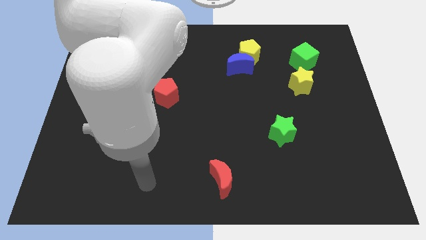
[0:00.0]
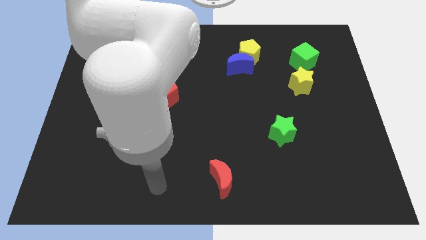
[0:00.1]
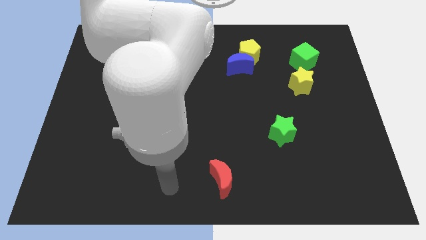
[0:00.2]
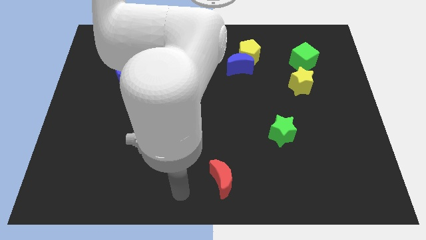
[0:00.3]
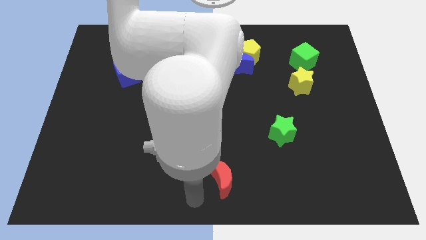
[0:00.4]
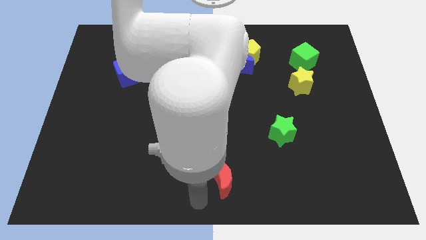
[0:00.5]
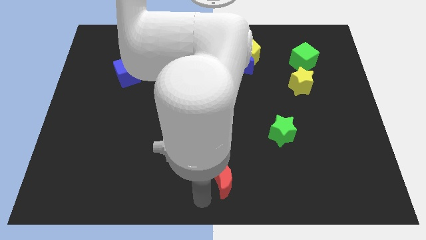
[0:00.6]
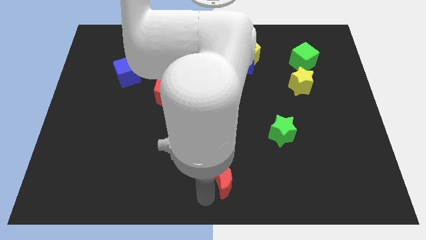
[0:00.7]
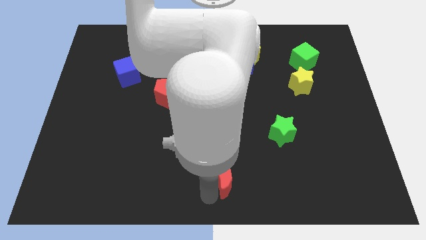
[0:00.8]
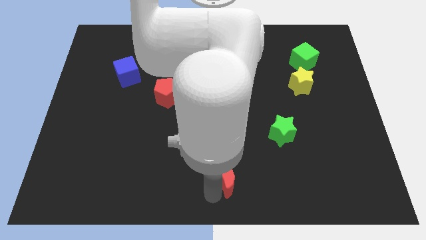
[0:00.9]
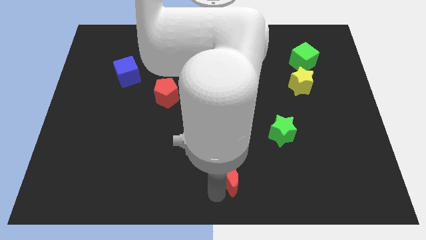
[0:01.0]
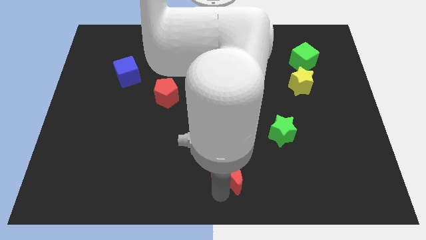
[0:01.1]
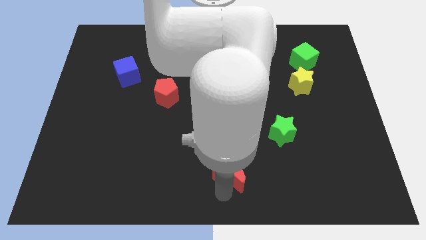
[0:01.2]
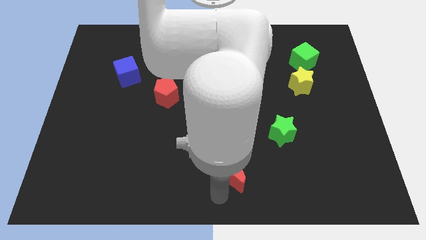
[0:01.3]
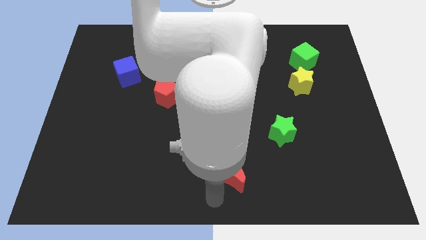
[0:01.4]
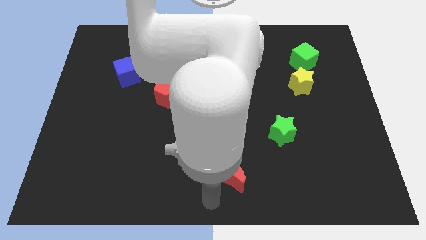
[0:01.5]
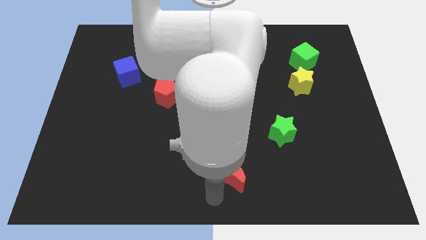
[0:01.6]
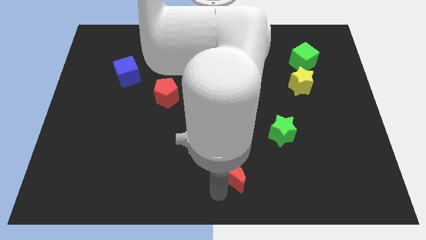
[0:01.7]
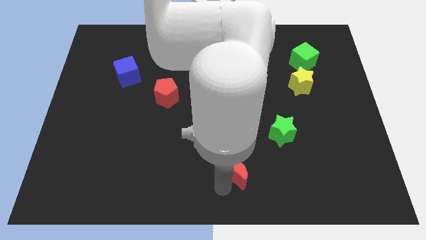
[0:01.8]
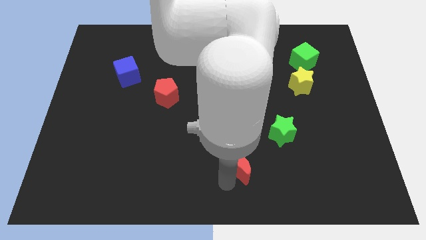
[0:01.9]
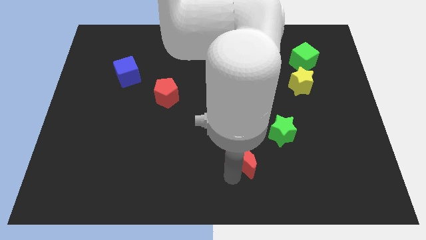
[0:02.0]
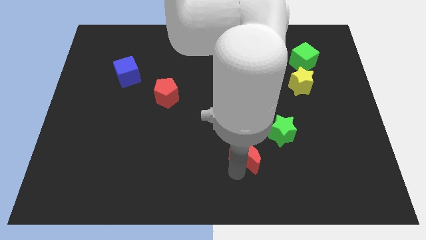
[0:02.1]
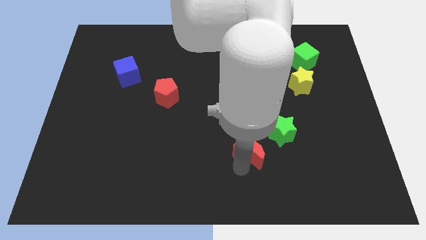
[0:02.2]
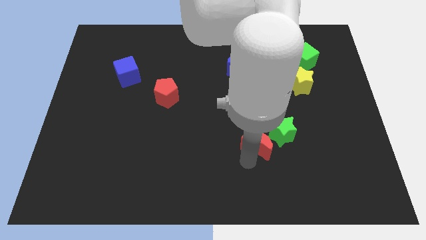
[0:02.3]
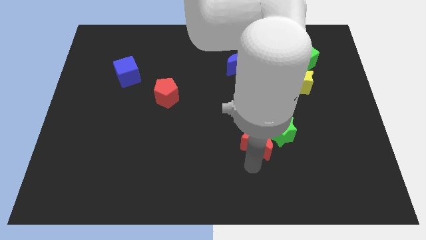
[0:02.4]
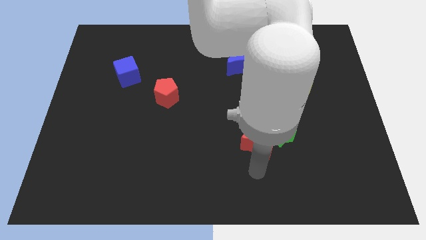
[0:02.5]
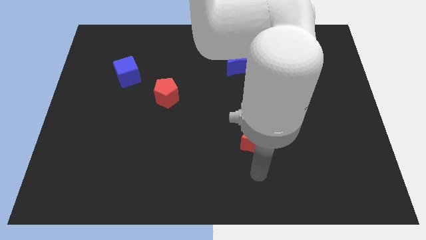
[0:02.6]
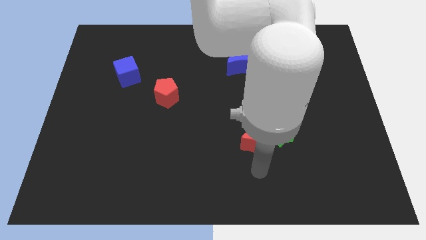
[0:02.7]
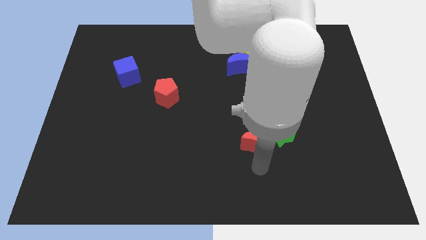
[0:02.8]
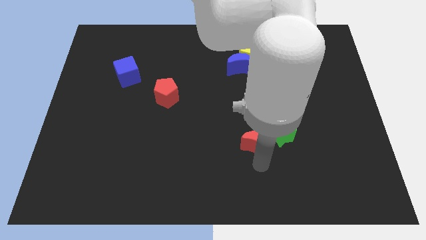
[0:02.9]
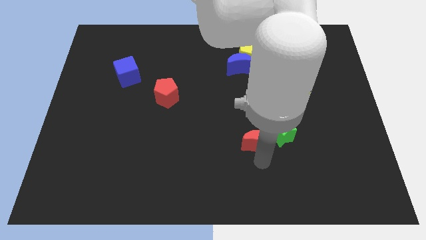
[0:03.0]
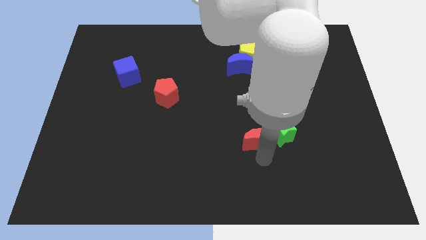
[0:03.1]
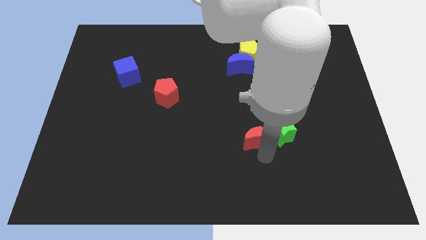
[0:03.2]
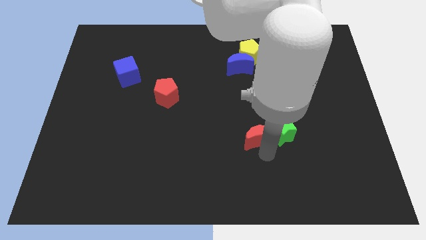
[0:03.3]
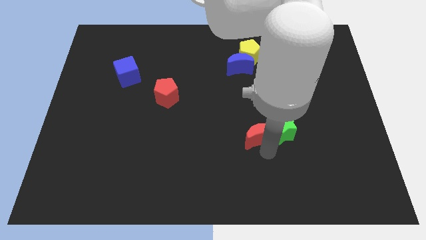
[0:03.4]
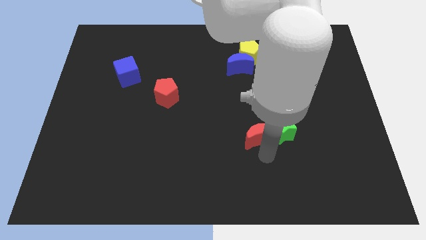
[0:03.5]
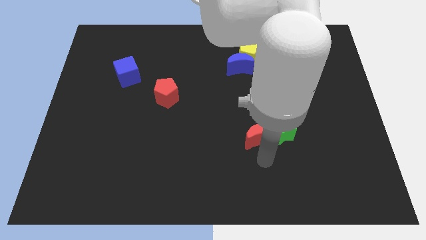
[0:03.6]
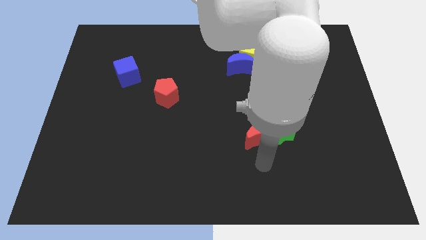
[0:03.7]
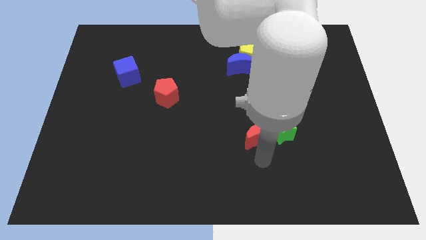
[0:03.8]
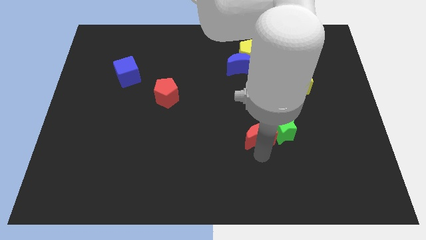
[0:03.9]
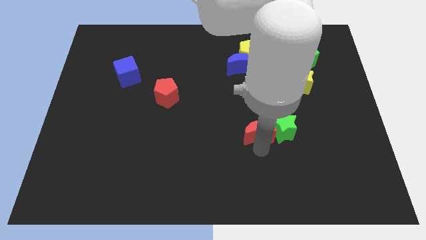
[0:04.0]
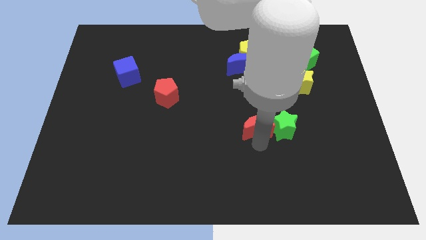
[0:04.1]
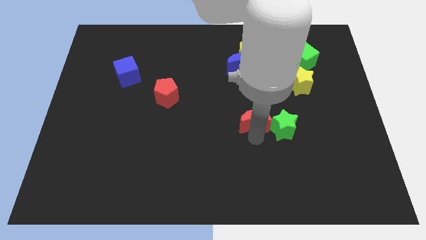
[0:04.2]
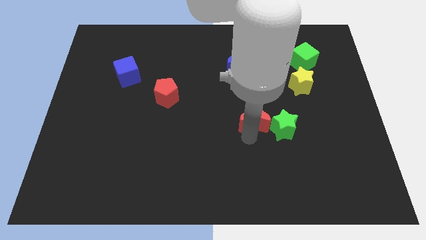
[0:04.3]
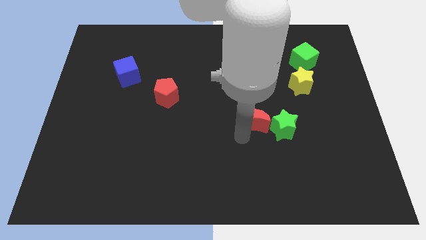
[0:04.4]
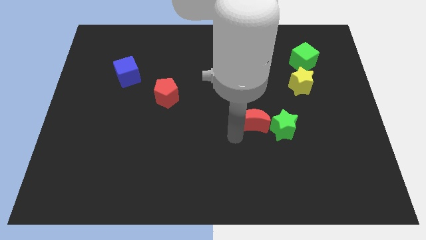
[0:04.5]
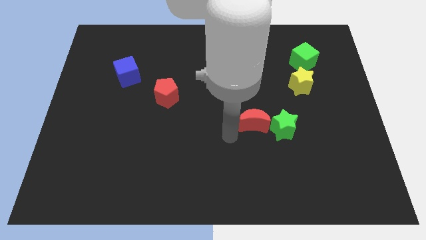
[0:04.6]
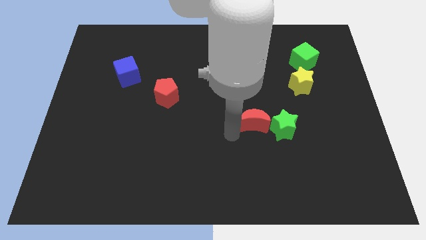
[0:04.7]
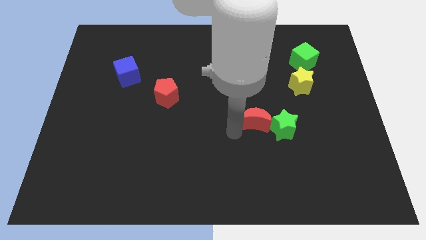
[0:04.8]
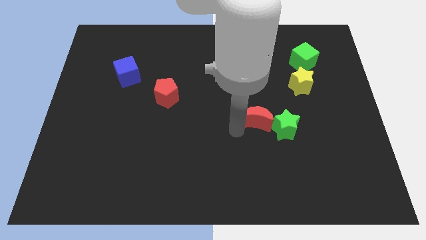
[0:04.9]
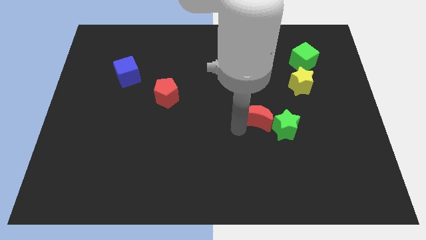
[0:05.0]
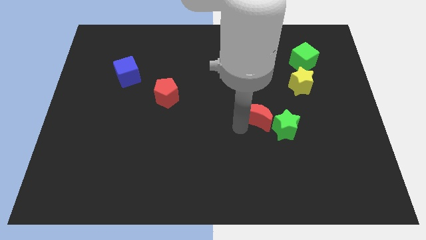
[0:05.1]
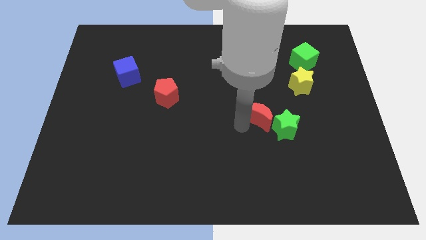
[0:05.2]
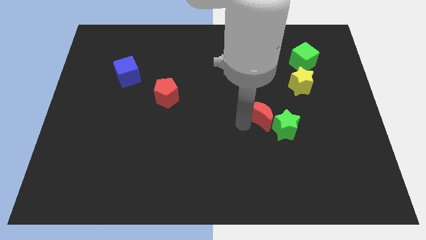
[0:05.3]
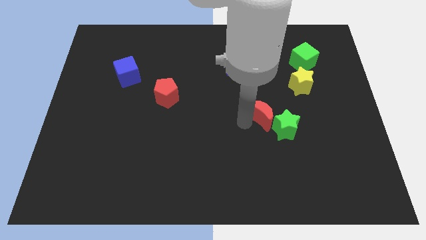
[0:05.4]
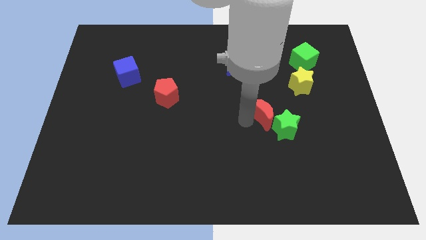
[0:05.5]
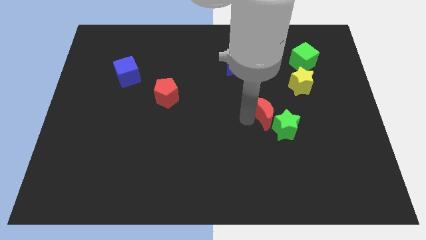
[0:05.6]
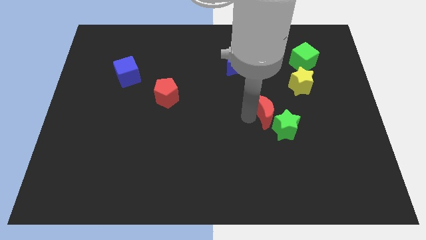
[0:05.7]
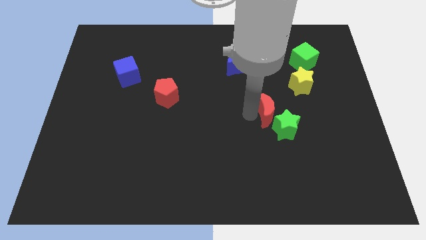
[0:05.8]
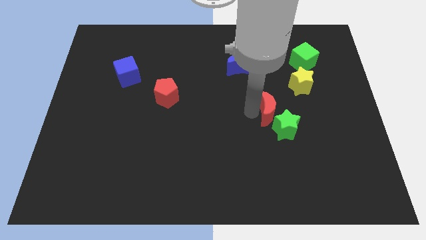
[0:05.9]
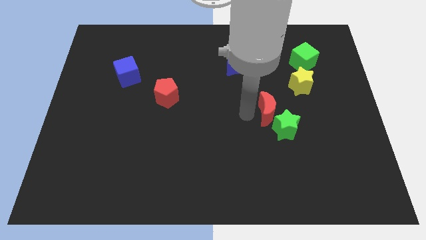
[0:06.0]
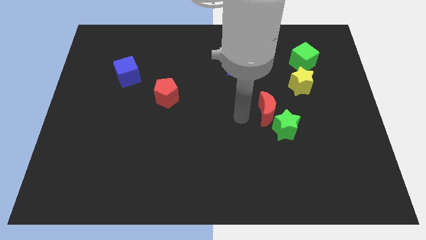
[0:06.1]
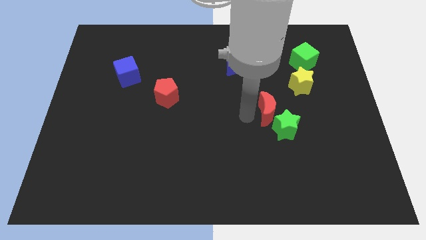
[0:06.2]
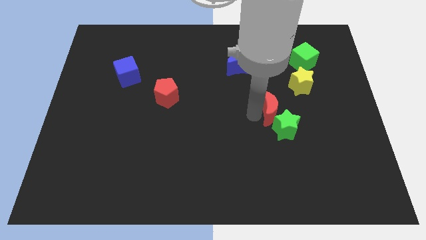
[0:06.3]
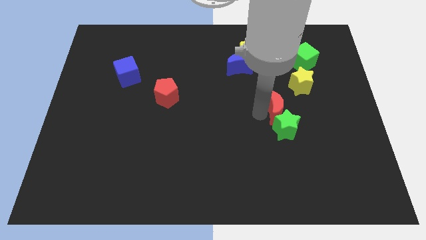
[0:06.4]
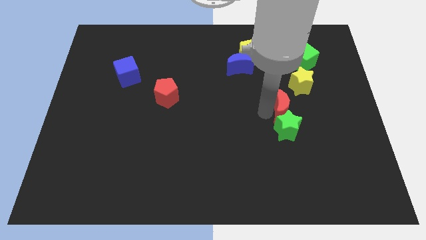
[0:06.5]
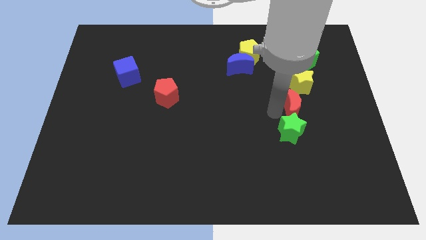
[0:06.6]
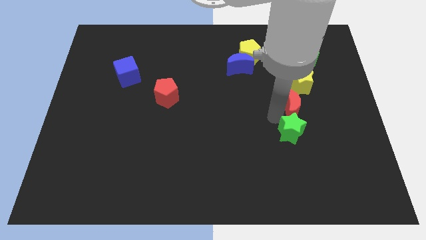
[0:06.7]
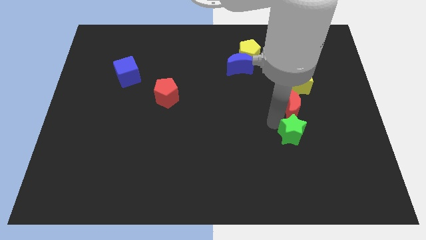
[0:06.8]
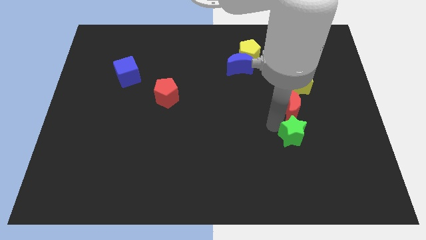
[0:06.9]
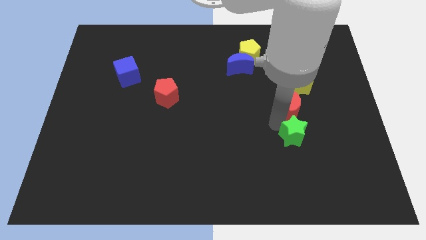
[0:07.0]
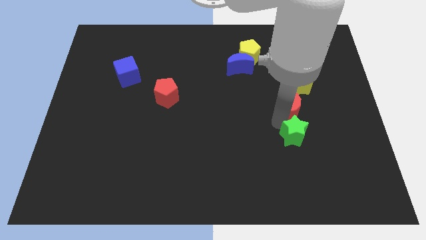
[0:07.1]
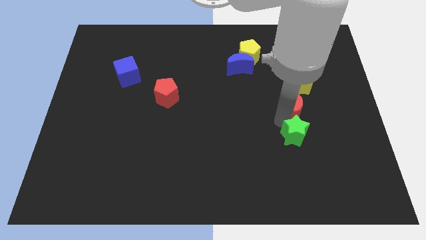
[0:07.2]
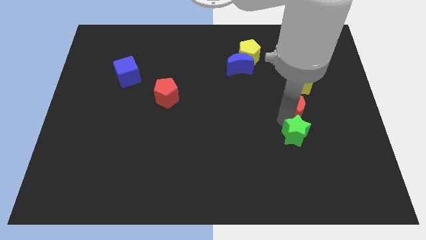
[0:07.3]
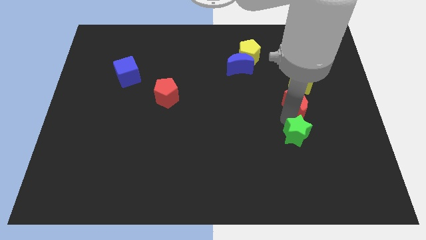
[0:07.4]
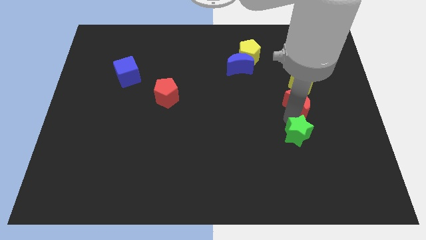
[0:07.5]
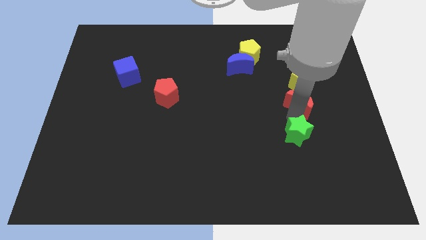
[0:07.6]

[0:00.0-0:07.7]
put the red moon to the bottom side of the green cube

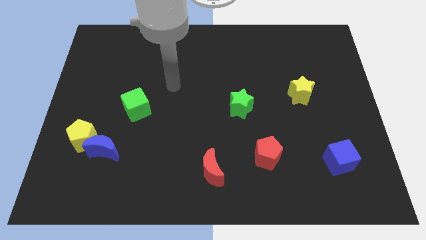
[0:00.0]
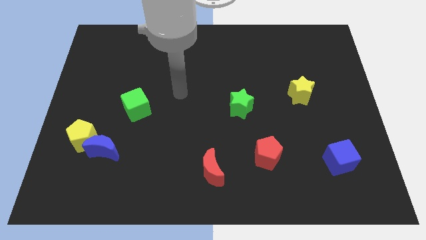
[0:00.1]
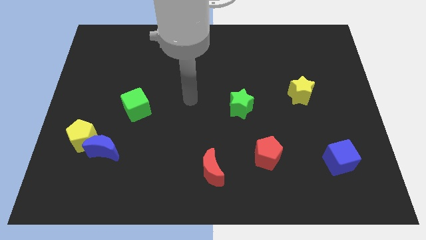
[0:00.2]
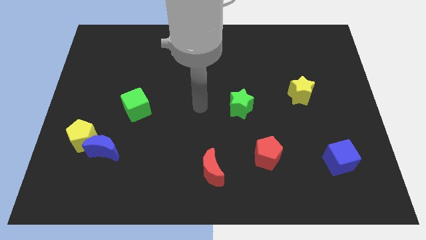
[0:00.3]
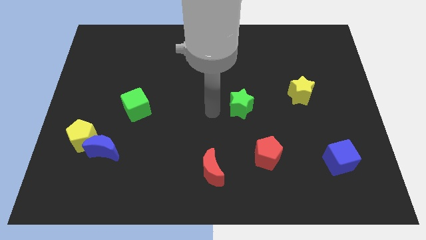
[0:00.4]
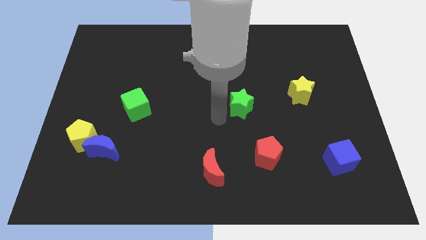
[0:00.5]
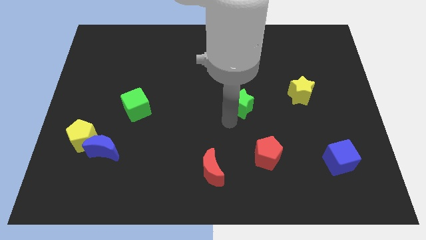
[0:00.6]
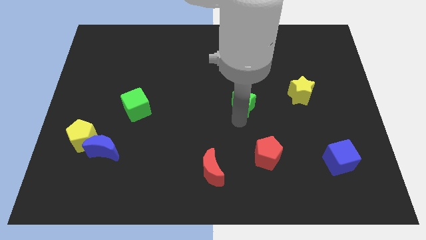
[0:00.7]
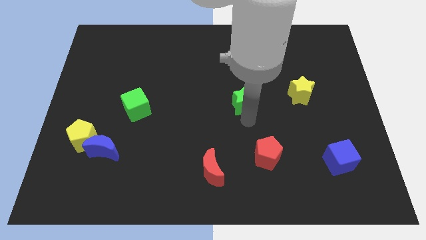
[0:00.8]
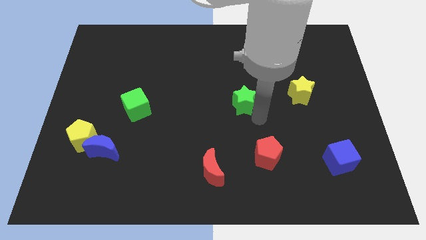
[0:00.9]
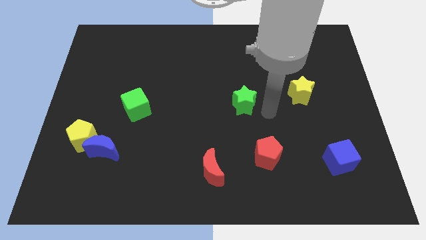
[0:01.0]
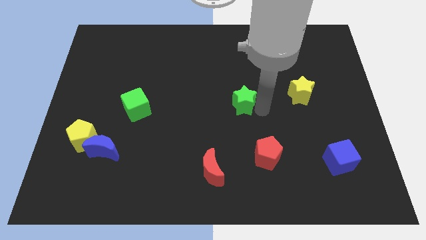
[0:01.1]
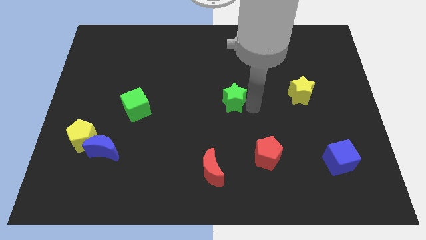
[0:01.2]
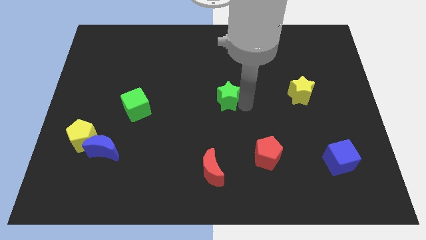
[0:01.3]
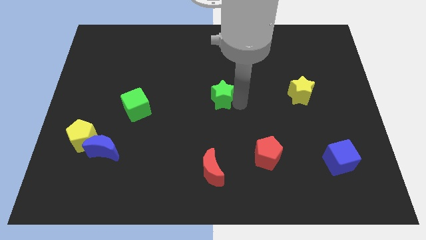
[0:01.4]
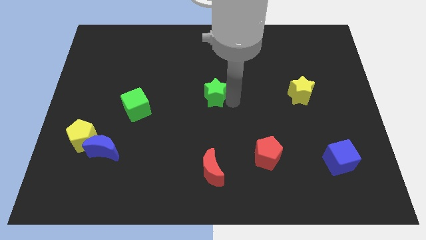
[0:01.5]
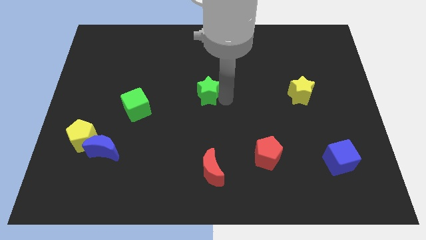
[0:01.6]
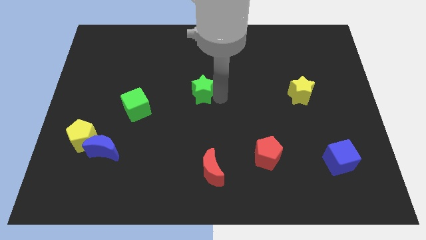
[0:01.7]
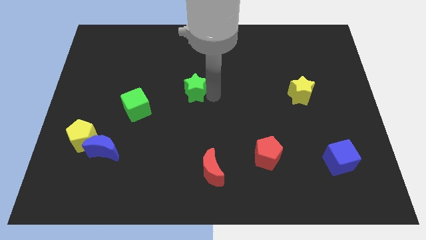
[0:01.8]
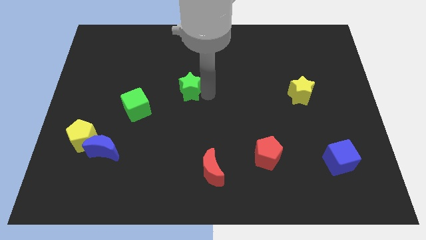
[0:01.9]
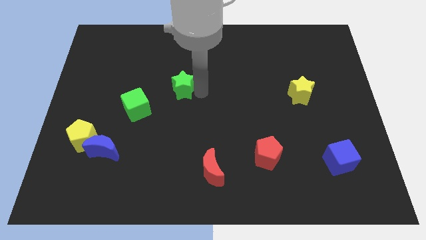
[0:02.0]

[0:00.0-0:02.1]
put the green star to the top right of the green cube
